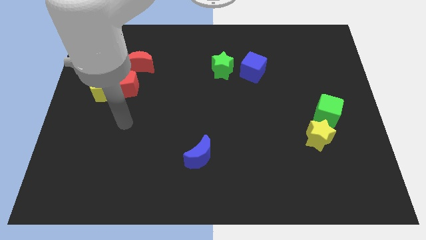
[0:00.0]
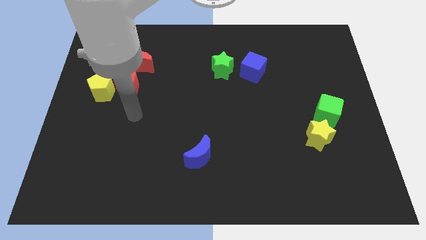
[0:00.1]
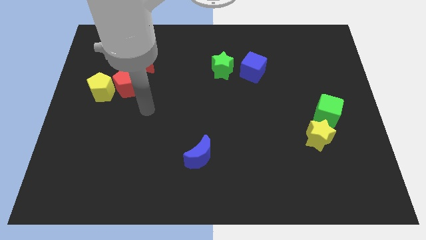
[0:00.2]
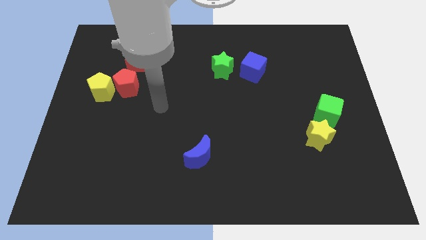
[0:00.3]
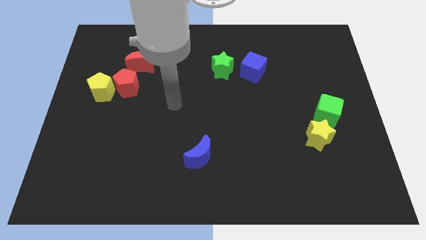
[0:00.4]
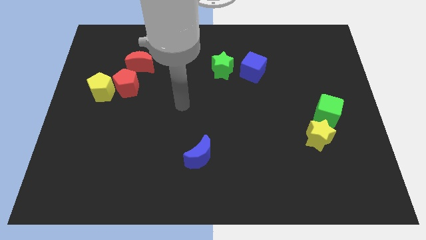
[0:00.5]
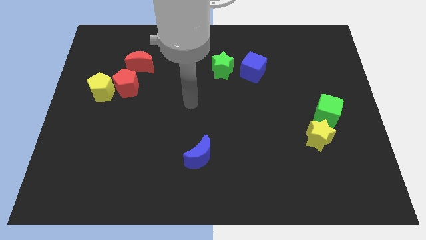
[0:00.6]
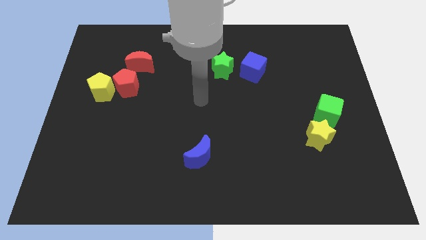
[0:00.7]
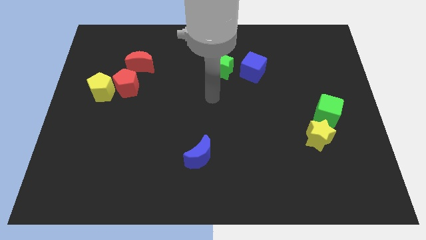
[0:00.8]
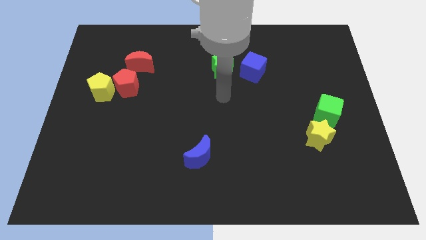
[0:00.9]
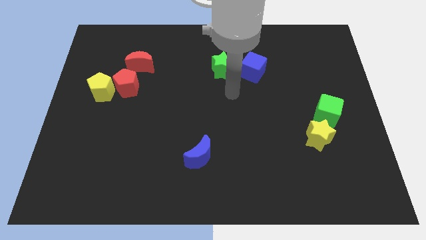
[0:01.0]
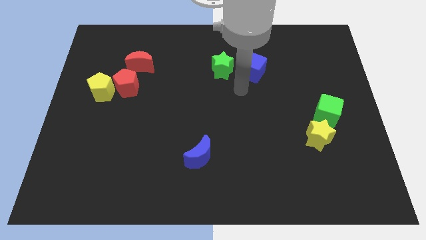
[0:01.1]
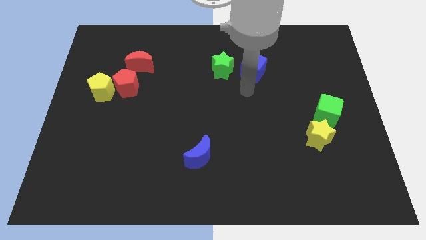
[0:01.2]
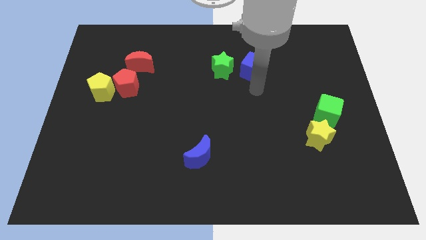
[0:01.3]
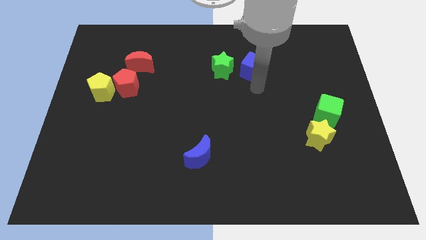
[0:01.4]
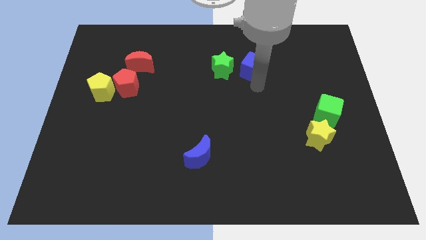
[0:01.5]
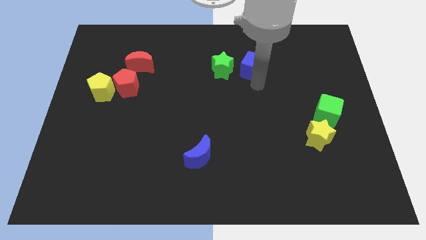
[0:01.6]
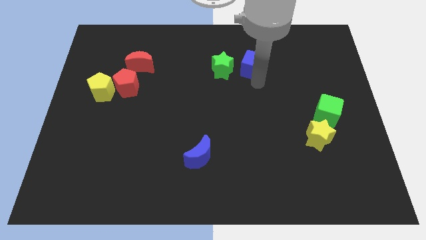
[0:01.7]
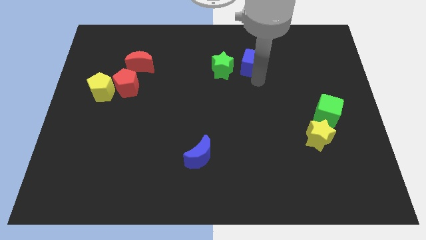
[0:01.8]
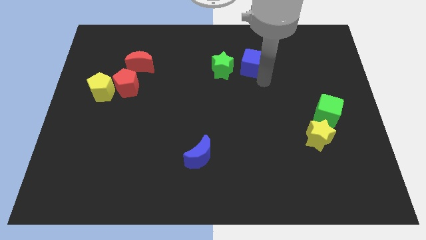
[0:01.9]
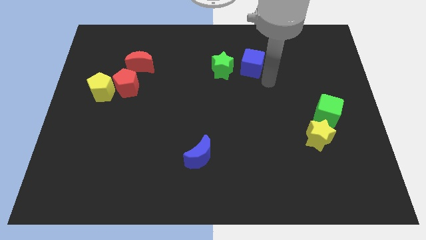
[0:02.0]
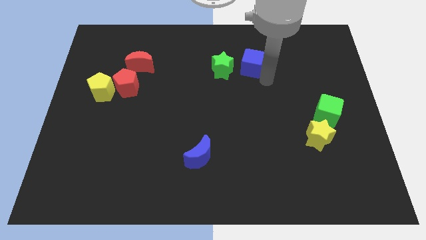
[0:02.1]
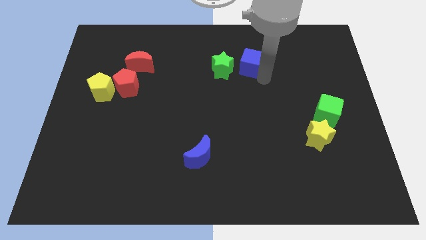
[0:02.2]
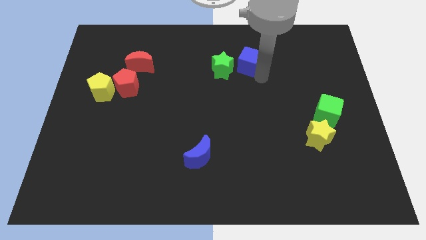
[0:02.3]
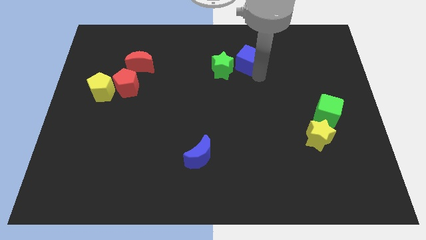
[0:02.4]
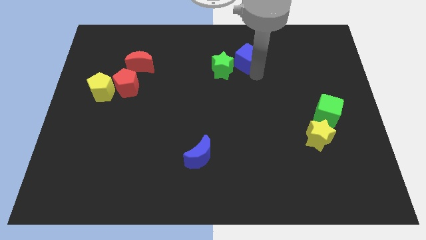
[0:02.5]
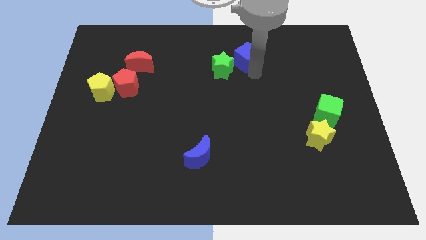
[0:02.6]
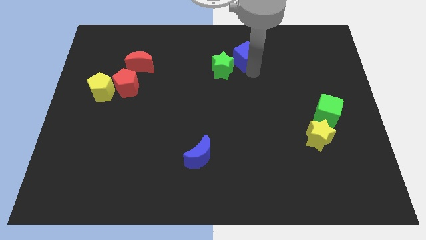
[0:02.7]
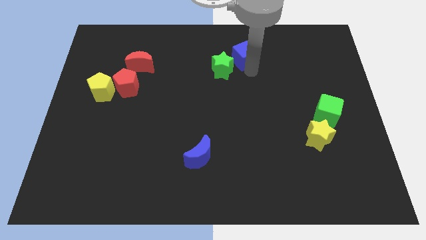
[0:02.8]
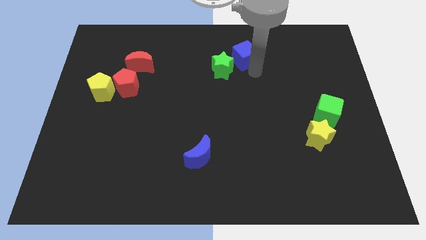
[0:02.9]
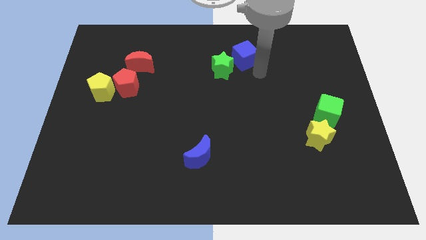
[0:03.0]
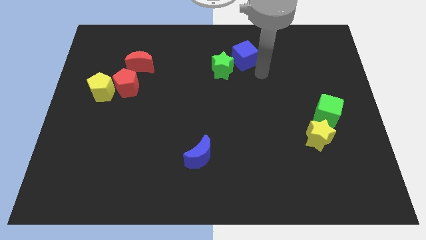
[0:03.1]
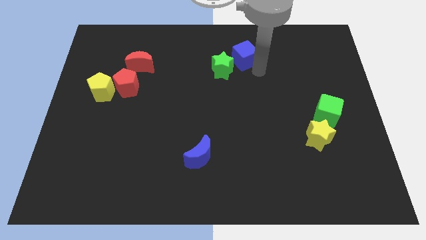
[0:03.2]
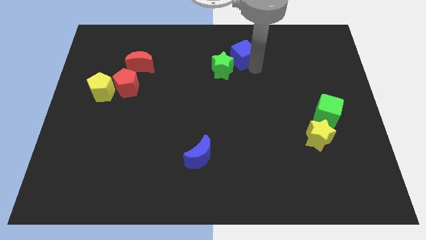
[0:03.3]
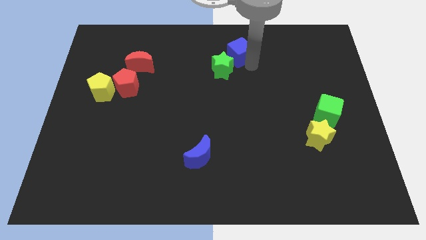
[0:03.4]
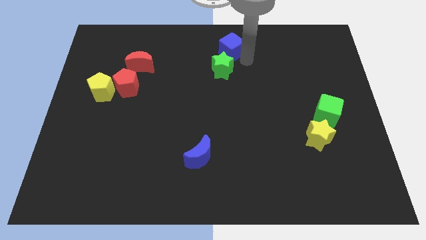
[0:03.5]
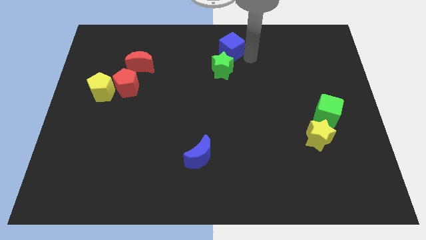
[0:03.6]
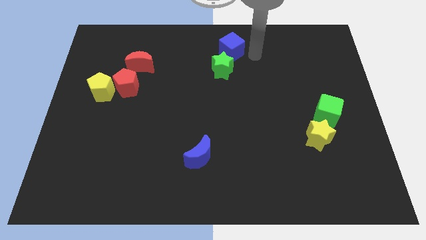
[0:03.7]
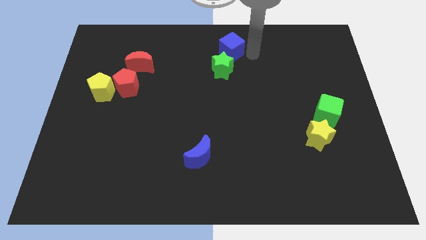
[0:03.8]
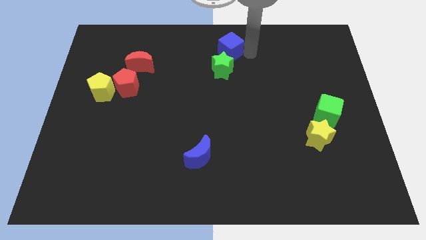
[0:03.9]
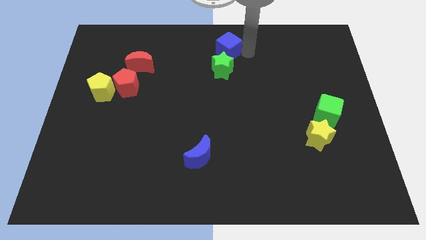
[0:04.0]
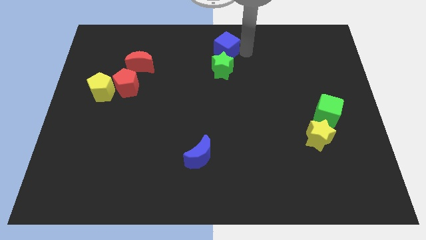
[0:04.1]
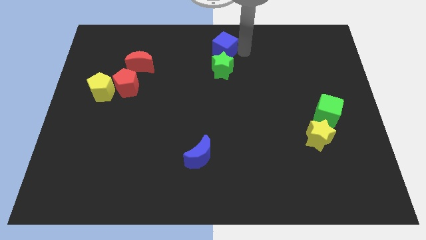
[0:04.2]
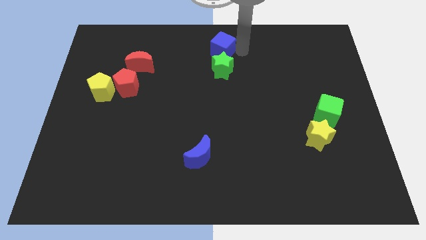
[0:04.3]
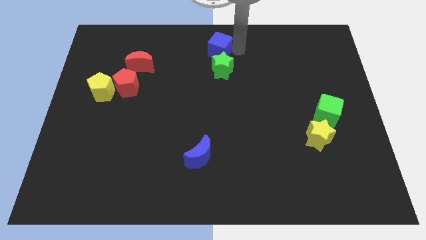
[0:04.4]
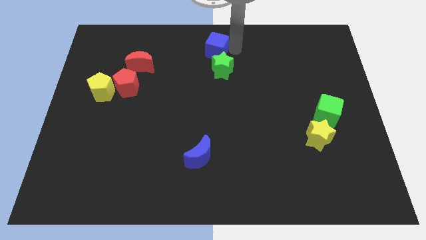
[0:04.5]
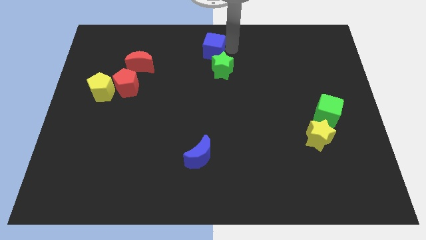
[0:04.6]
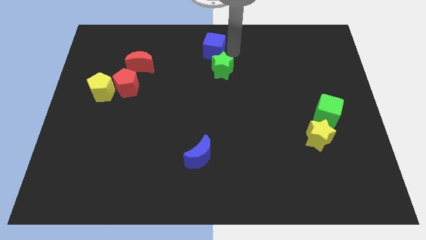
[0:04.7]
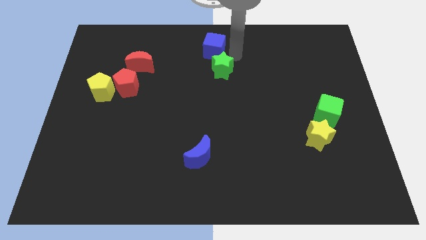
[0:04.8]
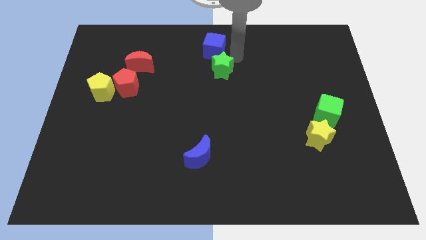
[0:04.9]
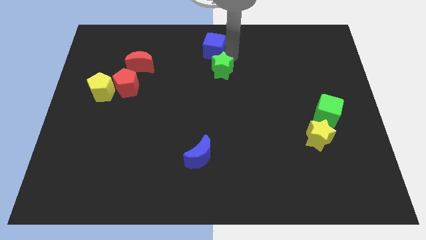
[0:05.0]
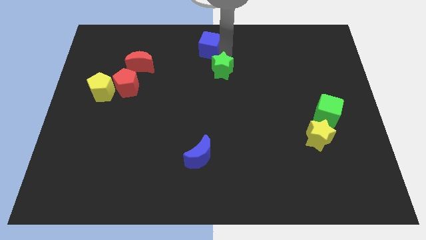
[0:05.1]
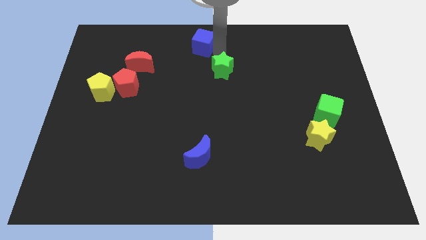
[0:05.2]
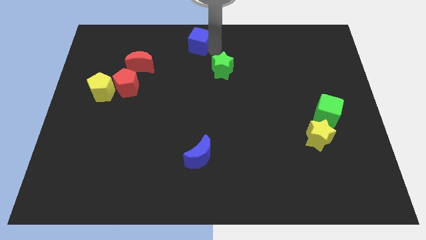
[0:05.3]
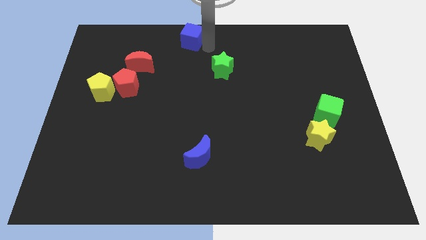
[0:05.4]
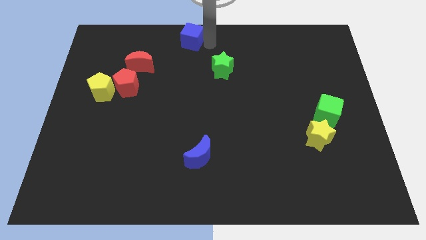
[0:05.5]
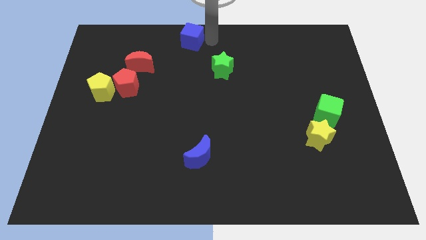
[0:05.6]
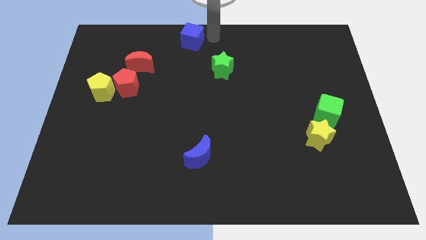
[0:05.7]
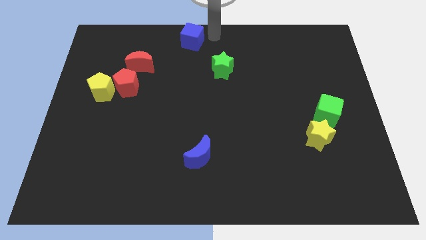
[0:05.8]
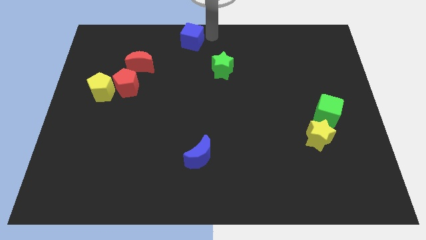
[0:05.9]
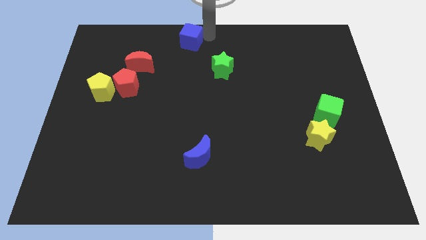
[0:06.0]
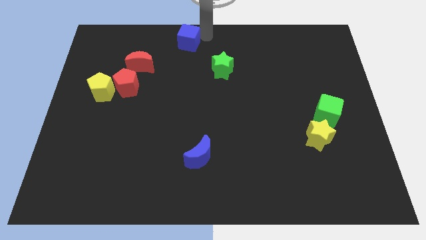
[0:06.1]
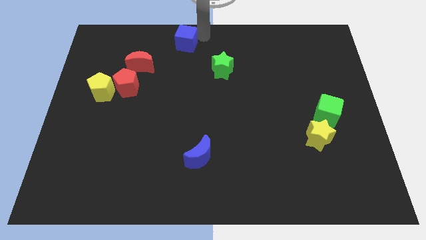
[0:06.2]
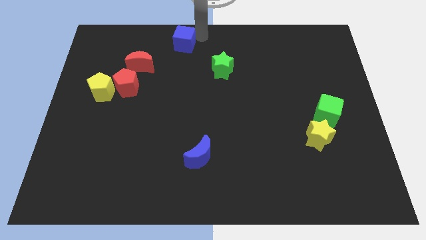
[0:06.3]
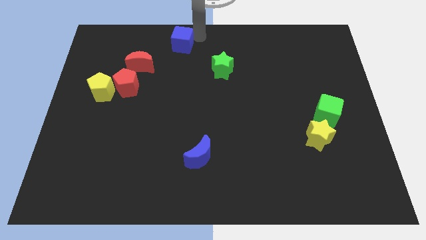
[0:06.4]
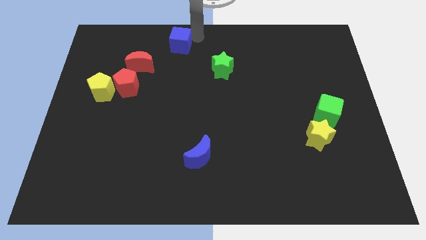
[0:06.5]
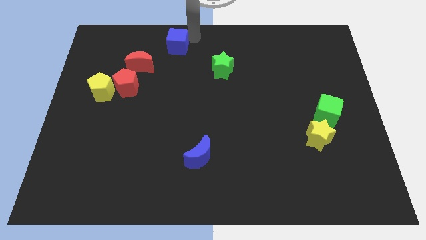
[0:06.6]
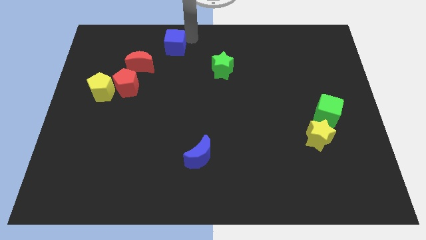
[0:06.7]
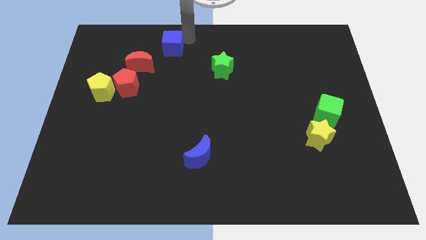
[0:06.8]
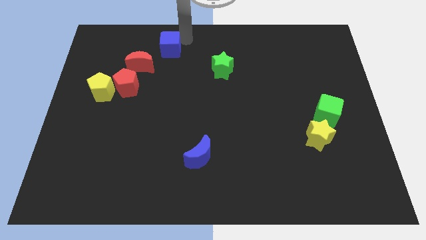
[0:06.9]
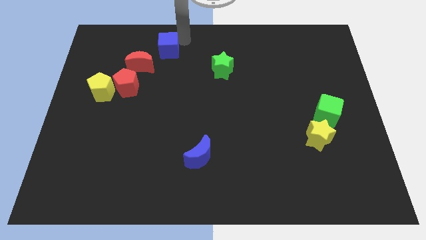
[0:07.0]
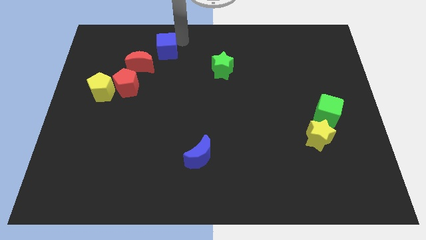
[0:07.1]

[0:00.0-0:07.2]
move the blue cube to the left

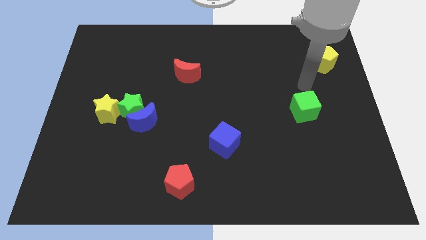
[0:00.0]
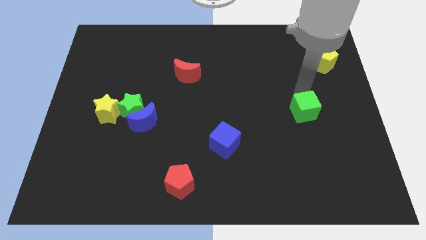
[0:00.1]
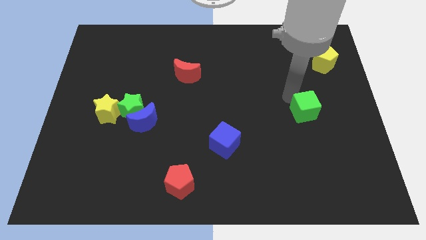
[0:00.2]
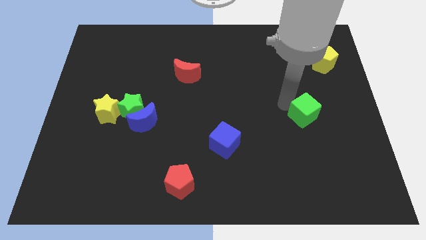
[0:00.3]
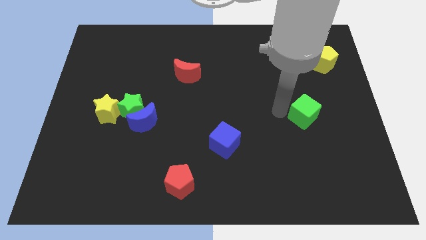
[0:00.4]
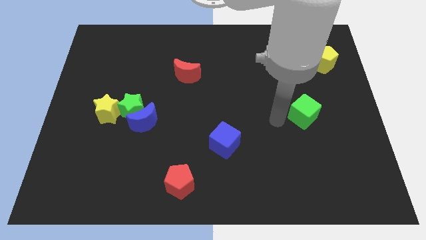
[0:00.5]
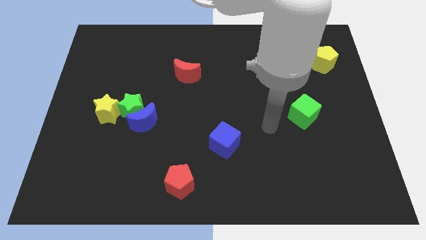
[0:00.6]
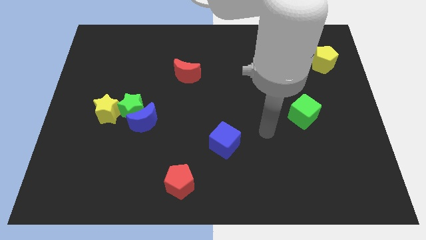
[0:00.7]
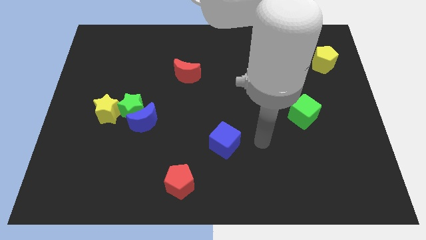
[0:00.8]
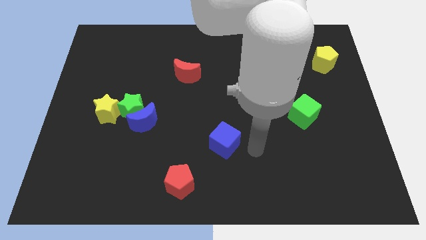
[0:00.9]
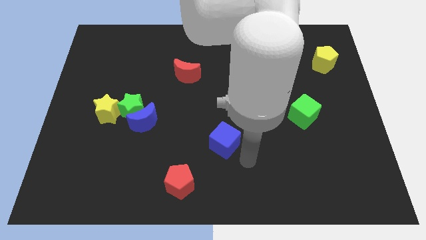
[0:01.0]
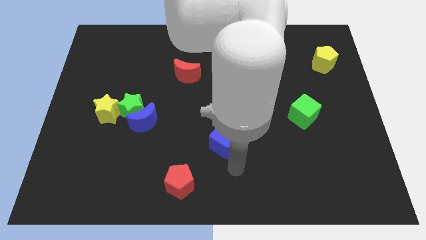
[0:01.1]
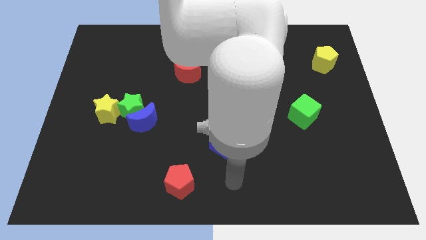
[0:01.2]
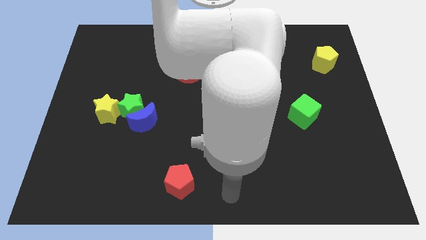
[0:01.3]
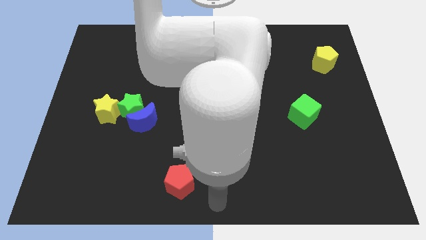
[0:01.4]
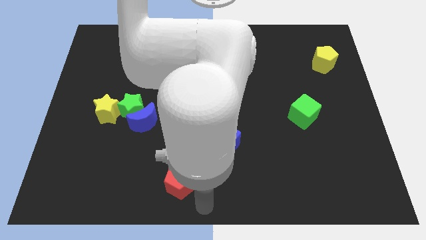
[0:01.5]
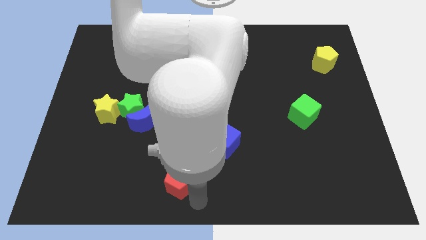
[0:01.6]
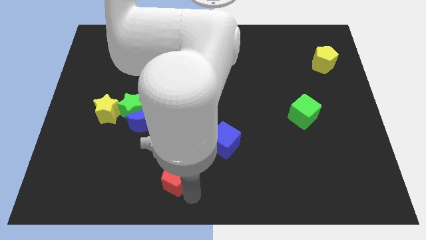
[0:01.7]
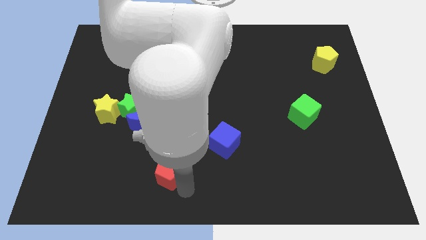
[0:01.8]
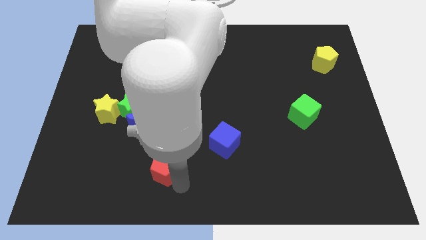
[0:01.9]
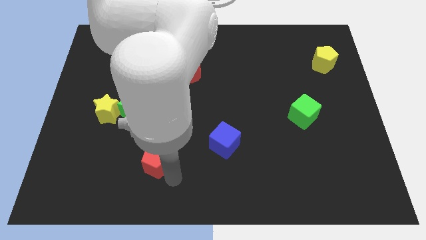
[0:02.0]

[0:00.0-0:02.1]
move the red pentagon upwards and left slightly
